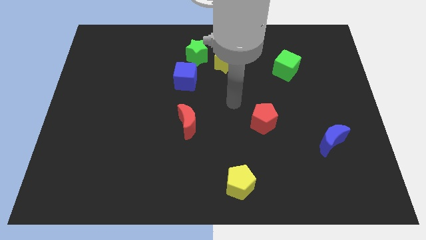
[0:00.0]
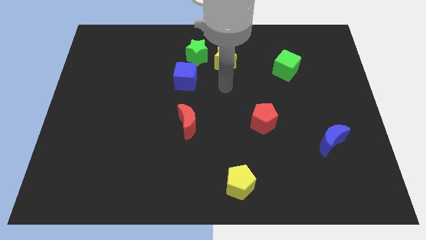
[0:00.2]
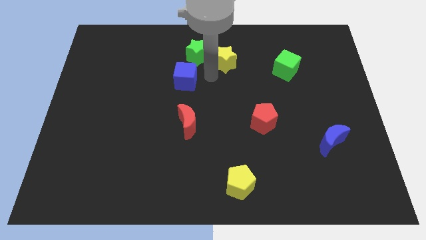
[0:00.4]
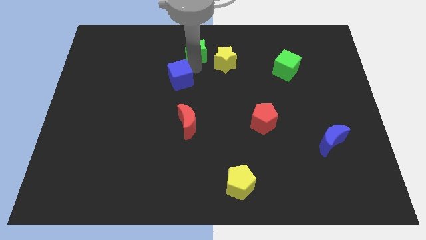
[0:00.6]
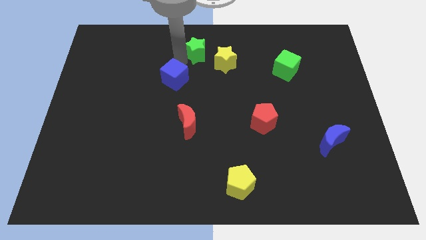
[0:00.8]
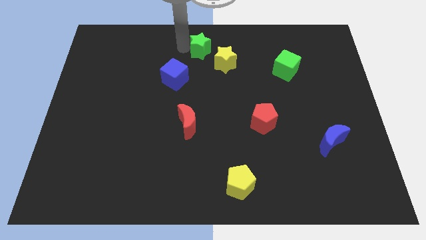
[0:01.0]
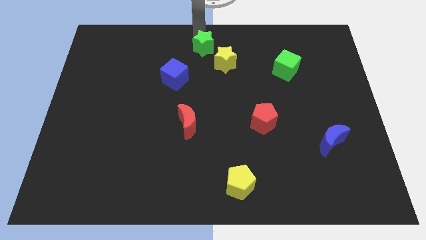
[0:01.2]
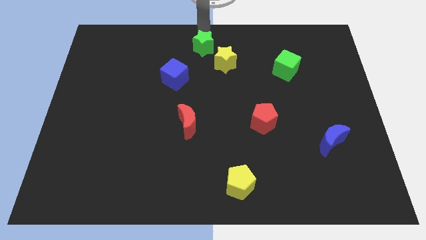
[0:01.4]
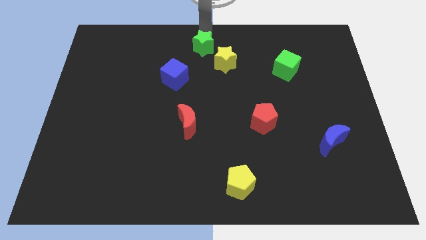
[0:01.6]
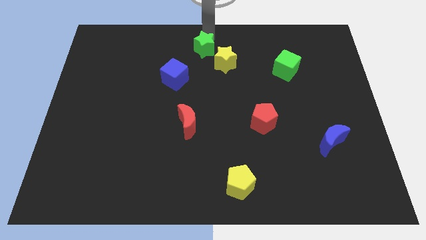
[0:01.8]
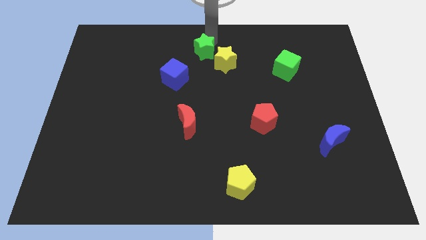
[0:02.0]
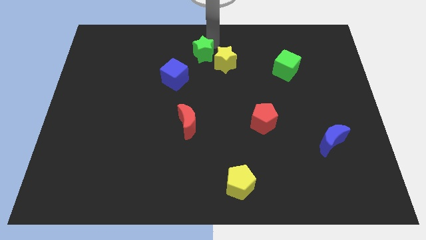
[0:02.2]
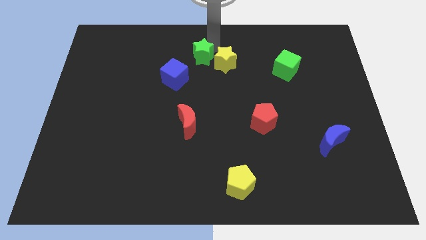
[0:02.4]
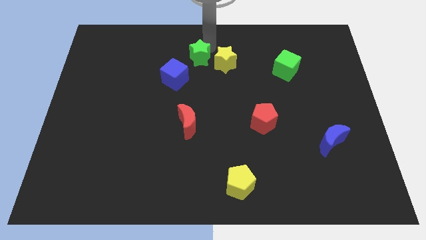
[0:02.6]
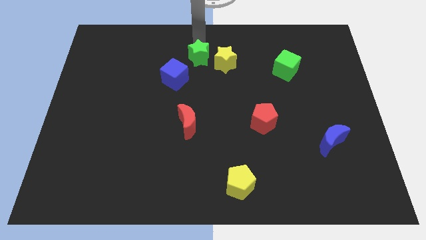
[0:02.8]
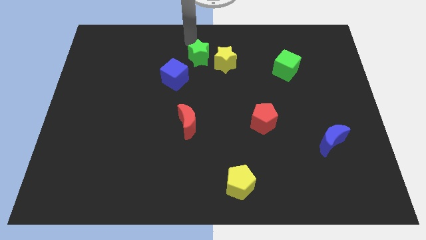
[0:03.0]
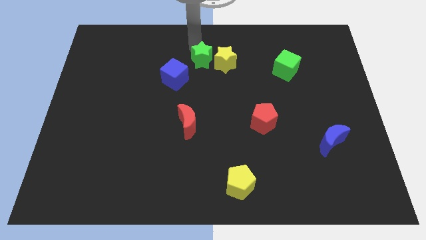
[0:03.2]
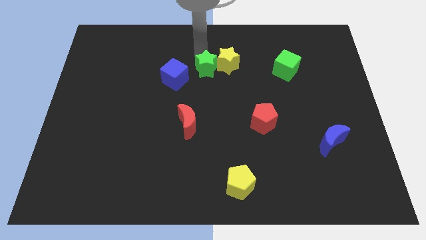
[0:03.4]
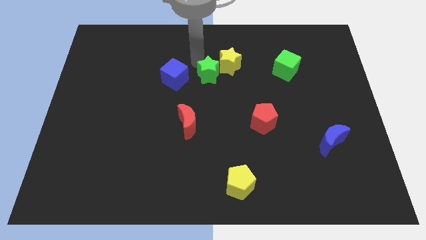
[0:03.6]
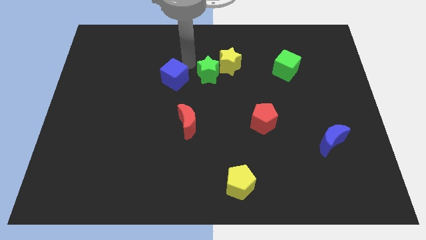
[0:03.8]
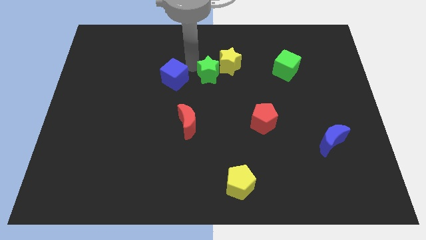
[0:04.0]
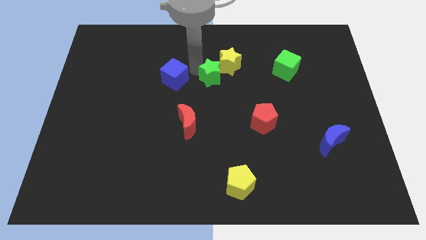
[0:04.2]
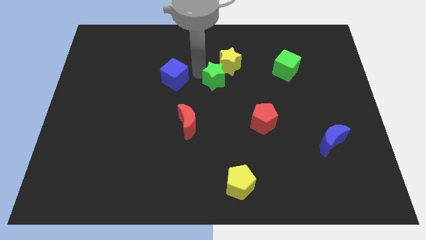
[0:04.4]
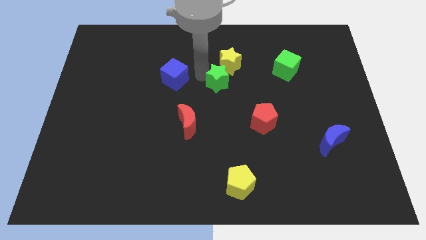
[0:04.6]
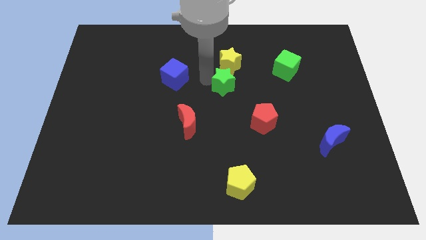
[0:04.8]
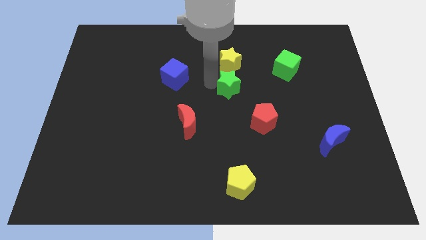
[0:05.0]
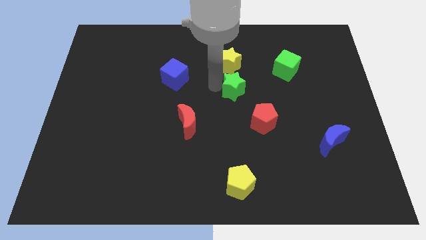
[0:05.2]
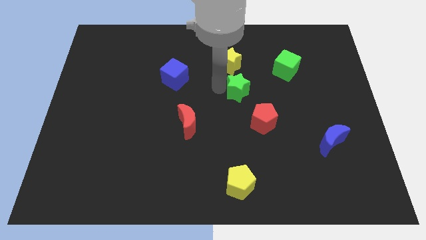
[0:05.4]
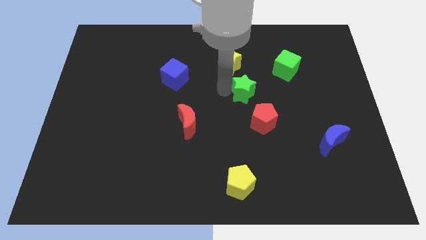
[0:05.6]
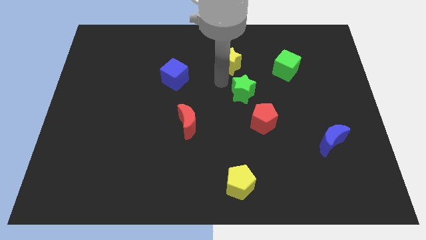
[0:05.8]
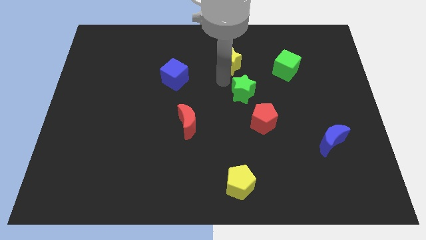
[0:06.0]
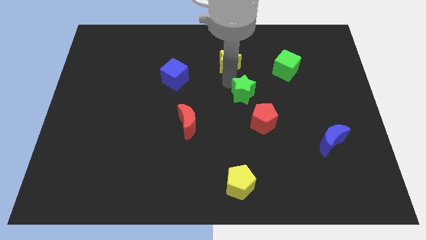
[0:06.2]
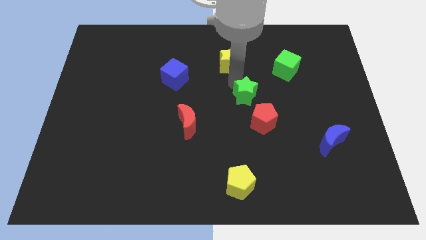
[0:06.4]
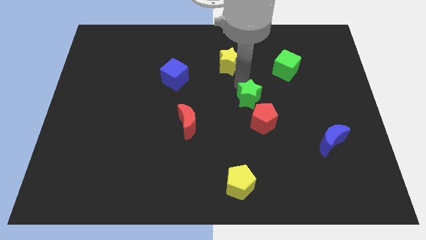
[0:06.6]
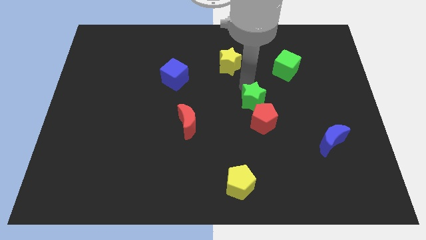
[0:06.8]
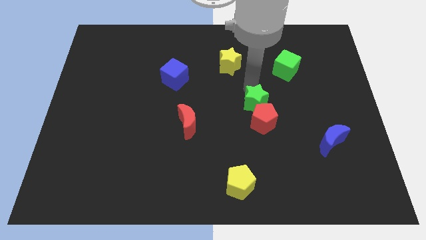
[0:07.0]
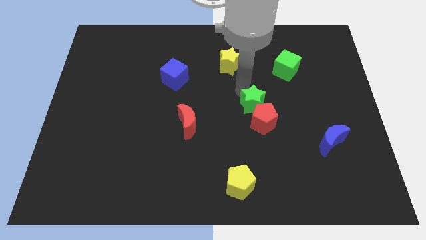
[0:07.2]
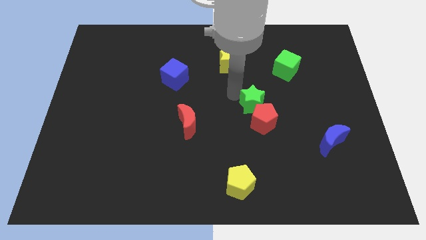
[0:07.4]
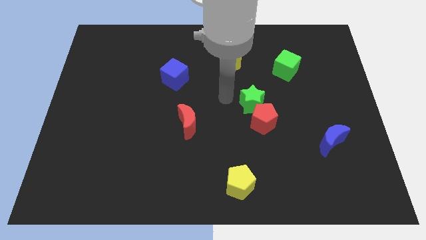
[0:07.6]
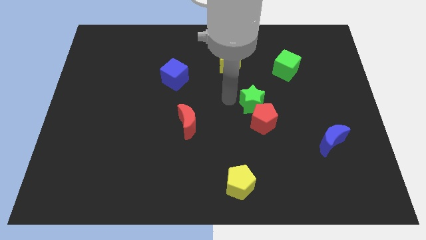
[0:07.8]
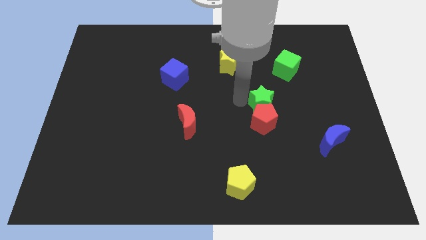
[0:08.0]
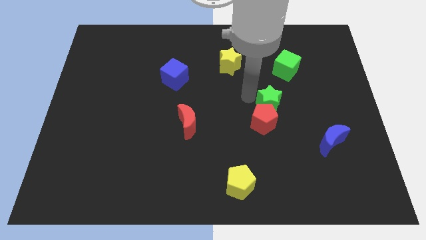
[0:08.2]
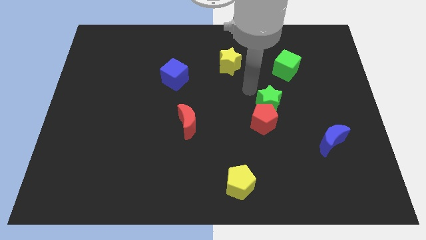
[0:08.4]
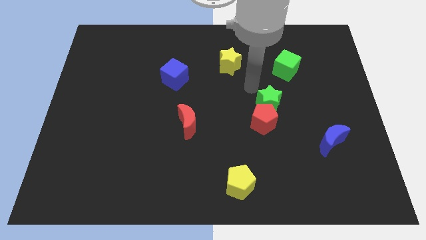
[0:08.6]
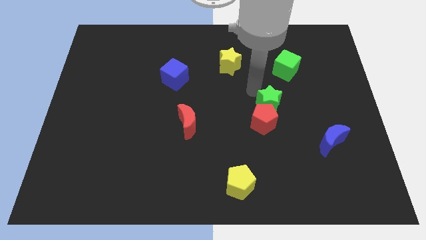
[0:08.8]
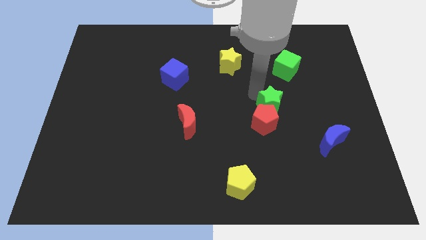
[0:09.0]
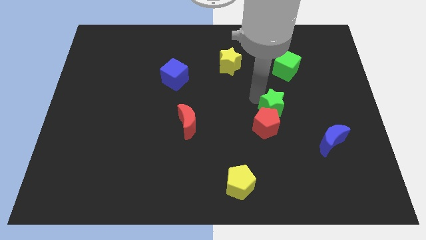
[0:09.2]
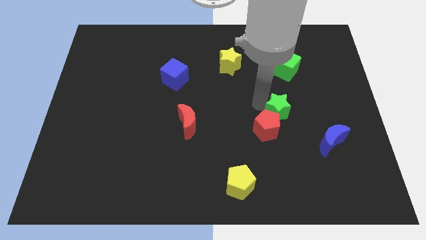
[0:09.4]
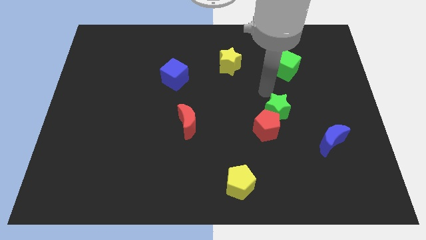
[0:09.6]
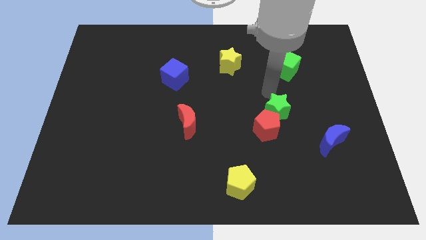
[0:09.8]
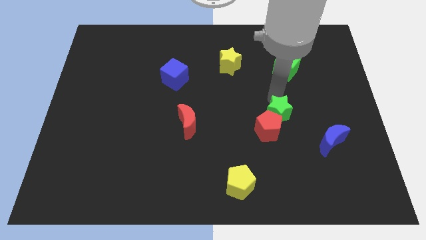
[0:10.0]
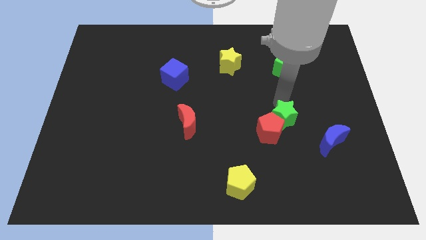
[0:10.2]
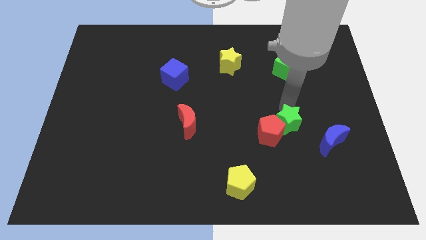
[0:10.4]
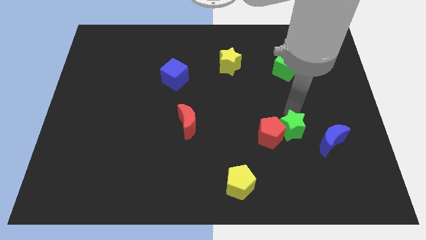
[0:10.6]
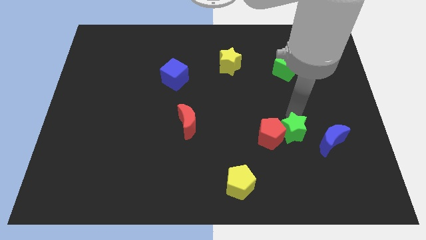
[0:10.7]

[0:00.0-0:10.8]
slide the green star to the bottom right of the red pentagon

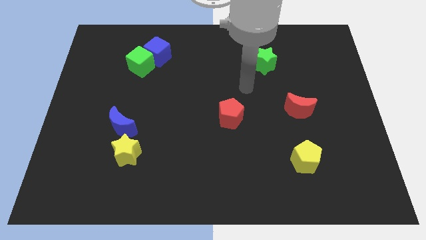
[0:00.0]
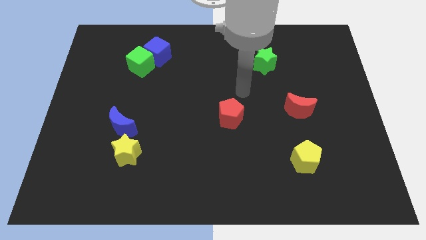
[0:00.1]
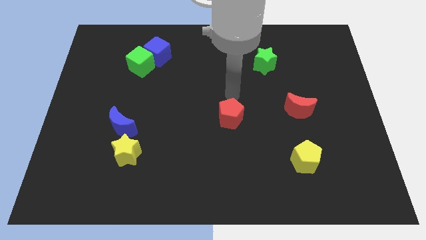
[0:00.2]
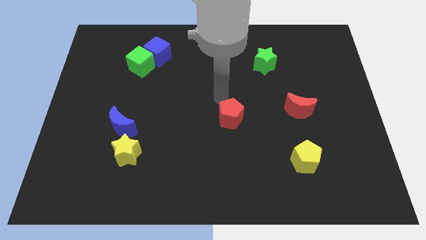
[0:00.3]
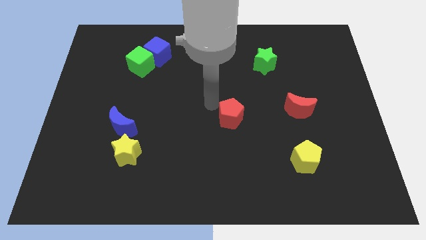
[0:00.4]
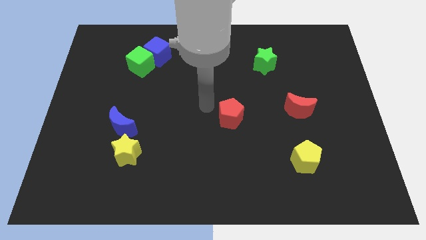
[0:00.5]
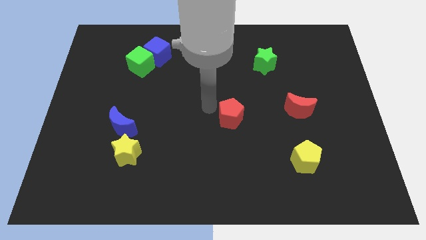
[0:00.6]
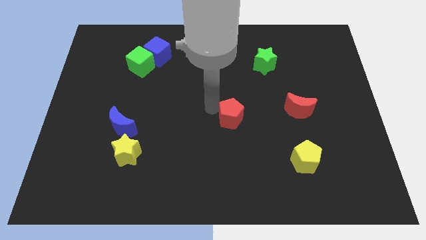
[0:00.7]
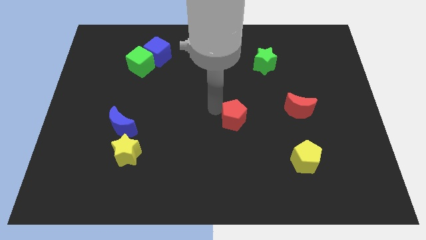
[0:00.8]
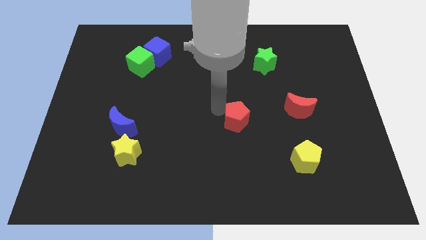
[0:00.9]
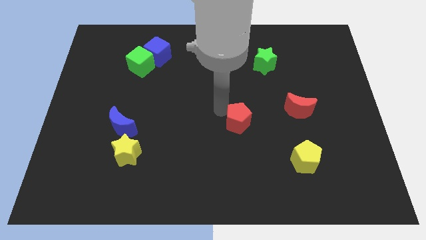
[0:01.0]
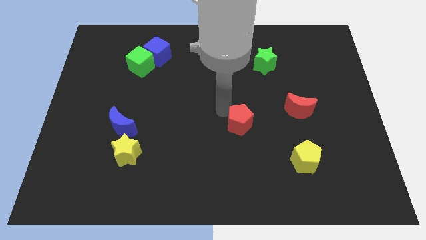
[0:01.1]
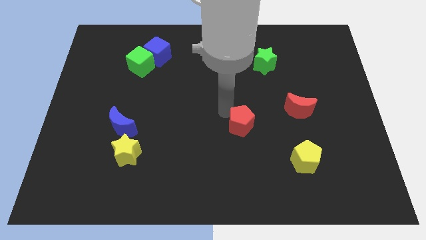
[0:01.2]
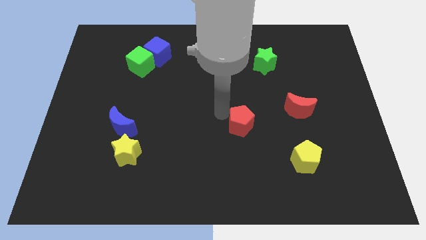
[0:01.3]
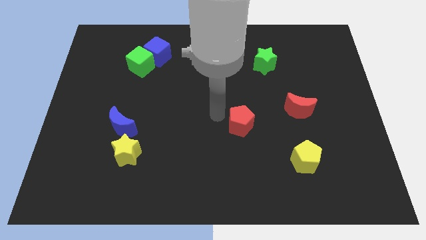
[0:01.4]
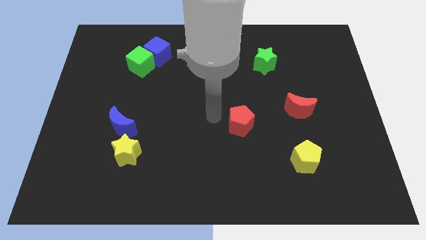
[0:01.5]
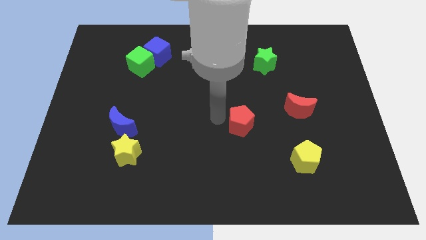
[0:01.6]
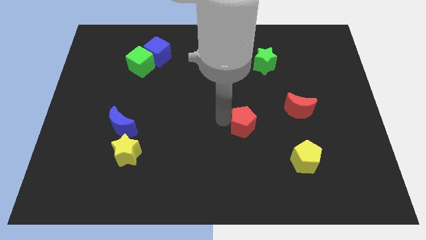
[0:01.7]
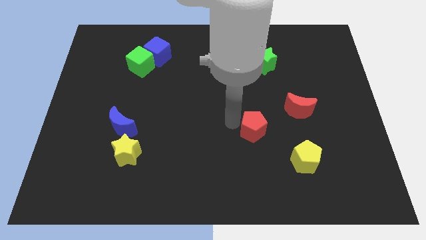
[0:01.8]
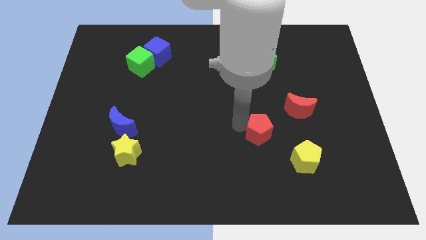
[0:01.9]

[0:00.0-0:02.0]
put the red pentagon to the top left side of the yellow pentagon
